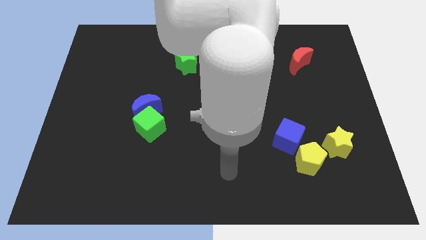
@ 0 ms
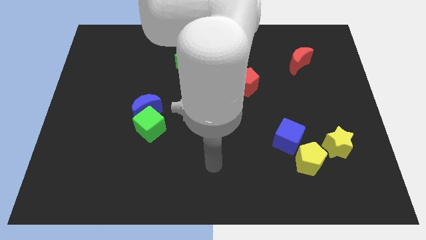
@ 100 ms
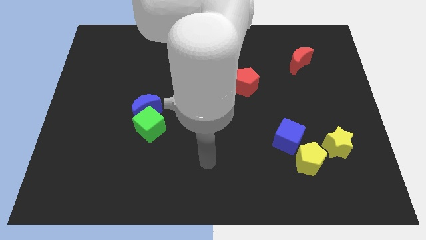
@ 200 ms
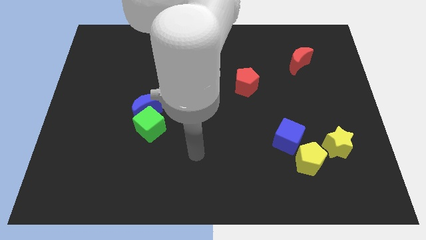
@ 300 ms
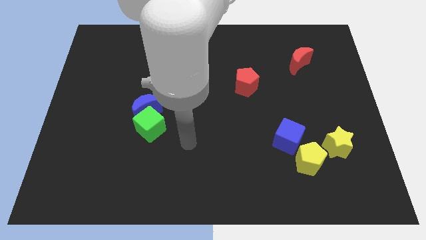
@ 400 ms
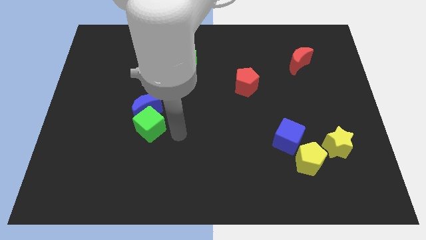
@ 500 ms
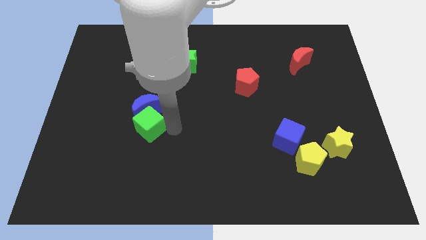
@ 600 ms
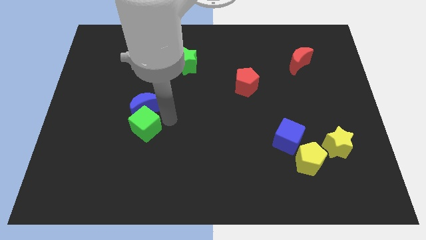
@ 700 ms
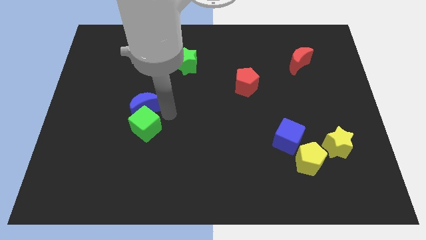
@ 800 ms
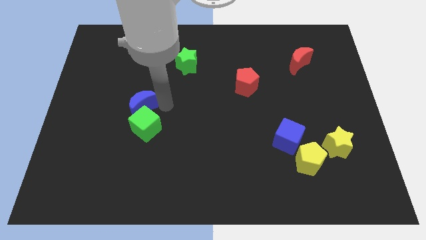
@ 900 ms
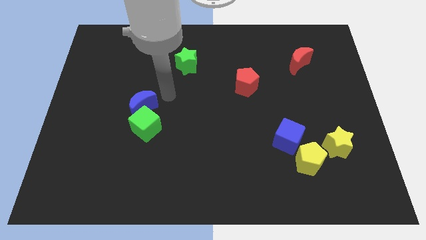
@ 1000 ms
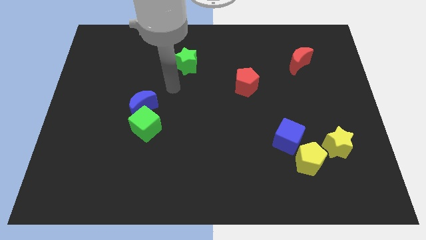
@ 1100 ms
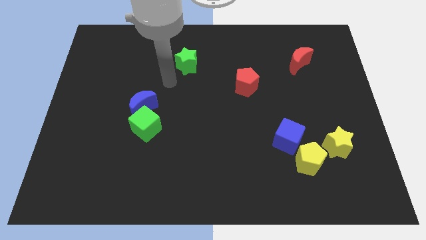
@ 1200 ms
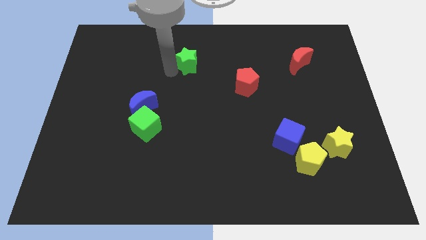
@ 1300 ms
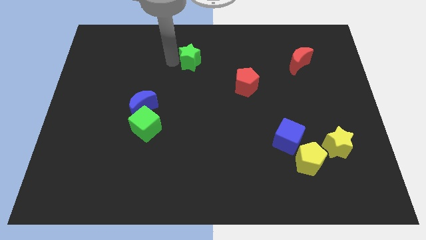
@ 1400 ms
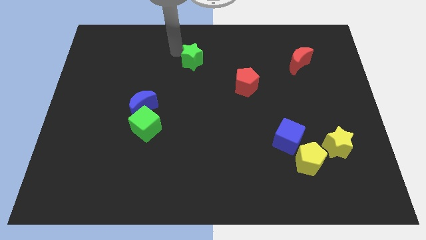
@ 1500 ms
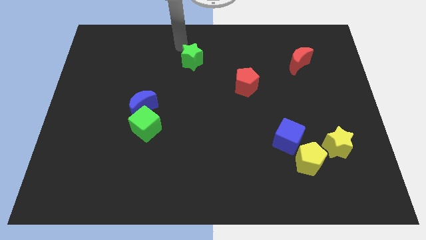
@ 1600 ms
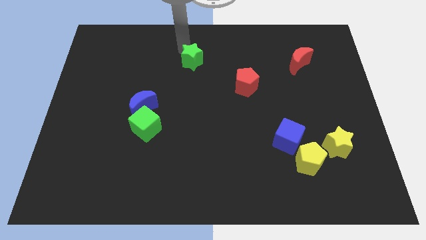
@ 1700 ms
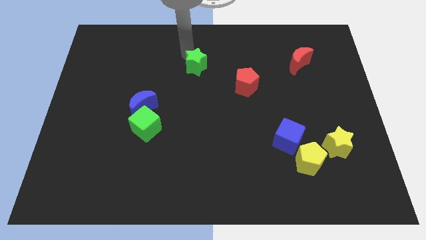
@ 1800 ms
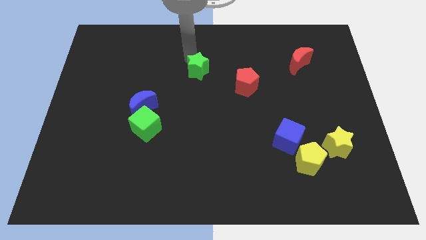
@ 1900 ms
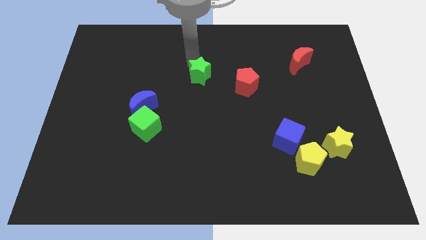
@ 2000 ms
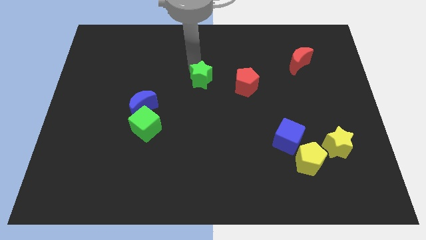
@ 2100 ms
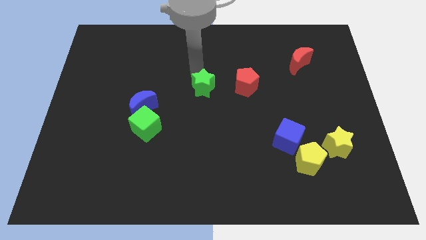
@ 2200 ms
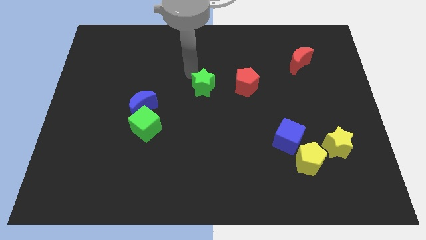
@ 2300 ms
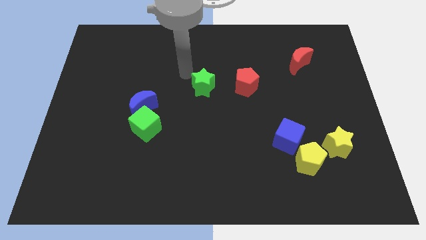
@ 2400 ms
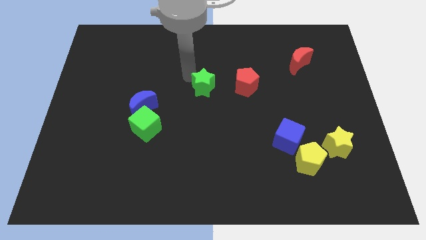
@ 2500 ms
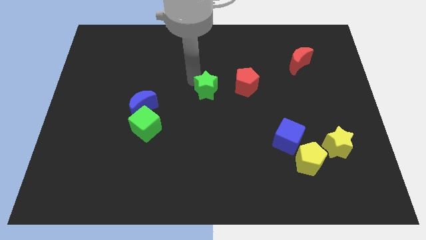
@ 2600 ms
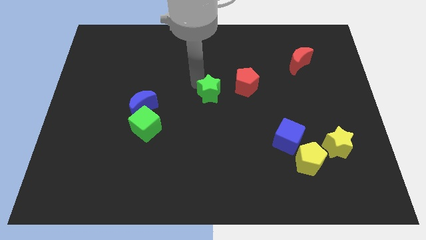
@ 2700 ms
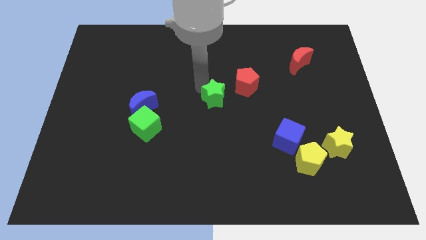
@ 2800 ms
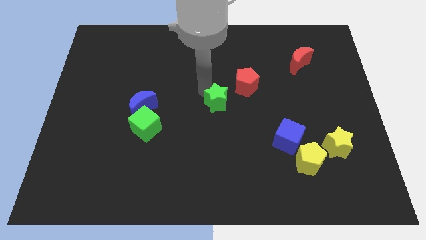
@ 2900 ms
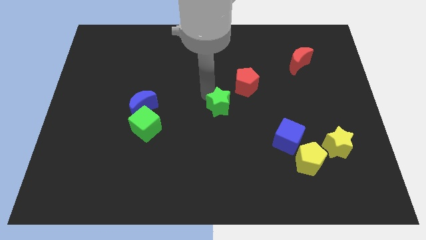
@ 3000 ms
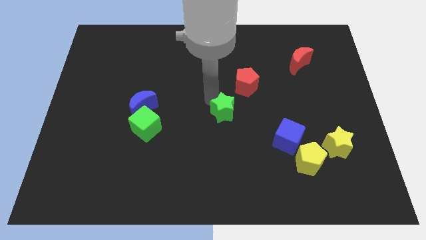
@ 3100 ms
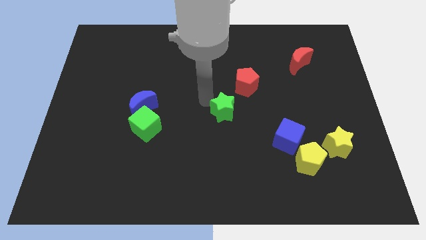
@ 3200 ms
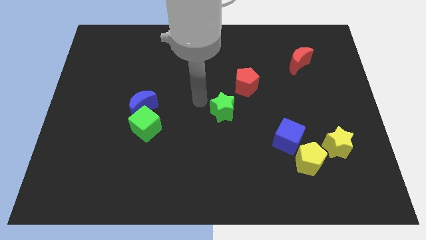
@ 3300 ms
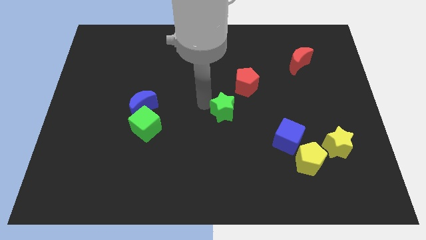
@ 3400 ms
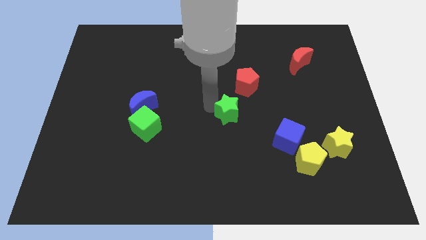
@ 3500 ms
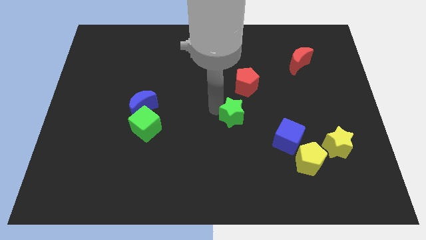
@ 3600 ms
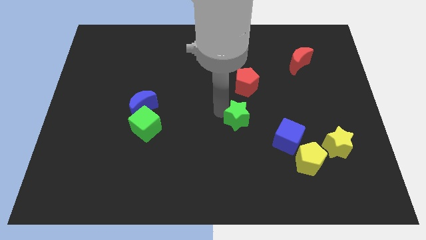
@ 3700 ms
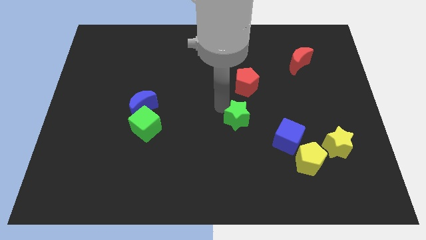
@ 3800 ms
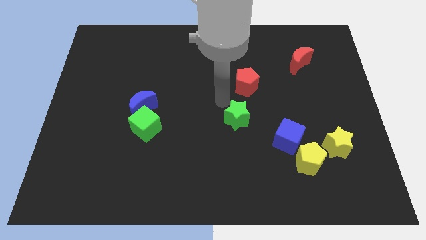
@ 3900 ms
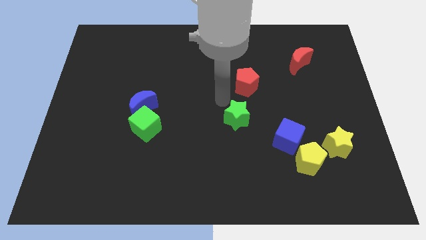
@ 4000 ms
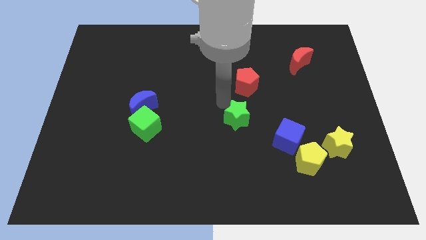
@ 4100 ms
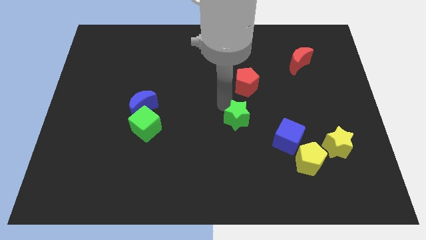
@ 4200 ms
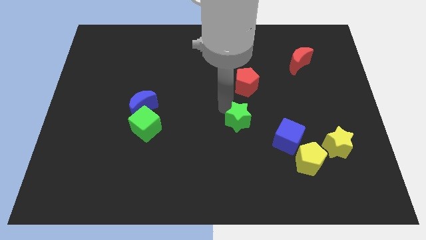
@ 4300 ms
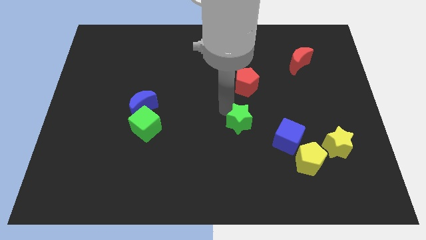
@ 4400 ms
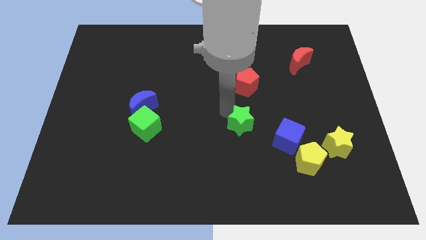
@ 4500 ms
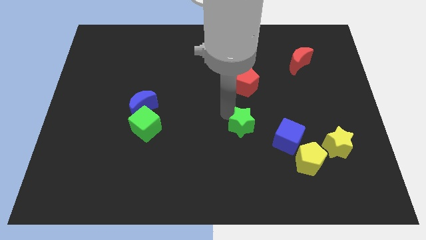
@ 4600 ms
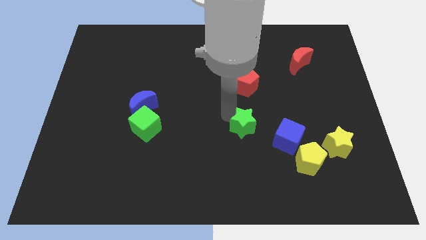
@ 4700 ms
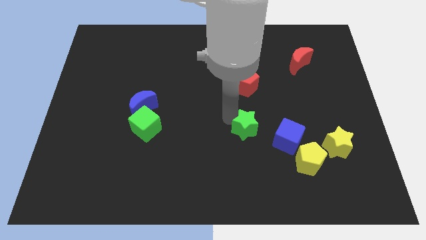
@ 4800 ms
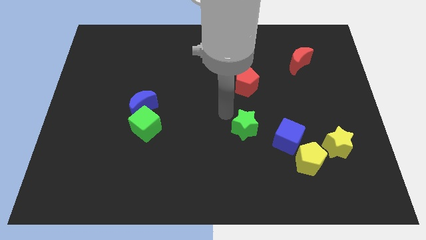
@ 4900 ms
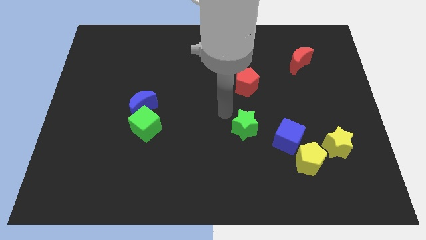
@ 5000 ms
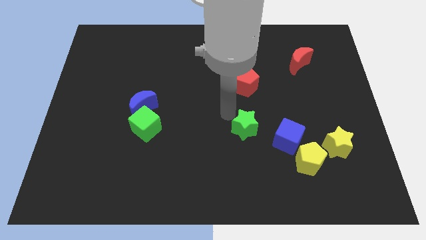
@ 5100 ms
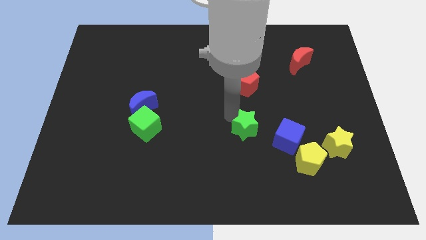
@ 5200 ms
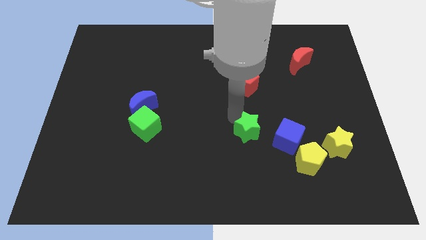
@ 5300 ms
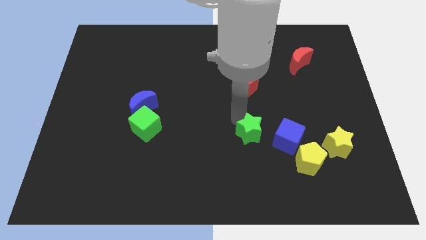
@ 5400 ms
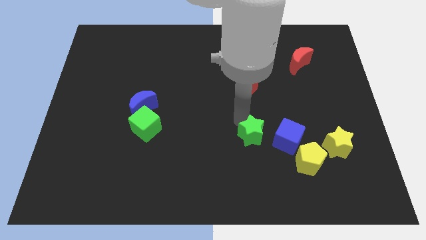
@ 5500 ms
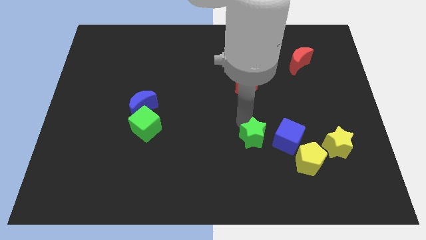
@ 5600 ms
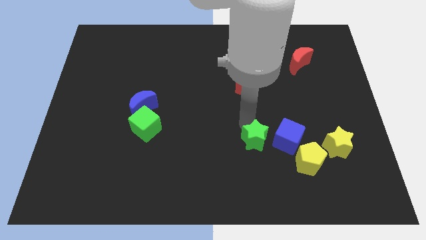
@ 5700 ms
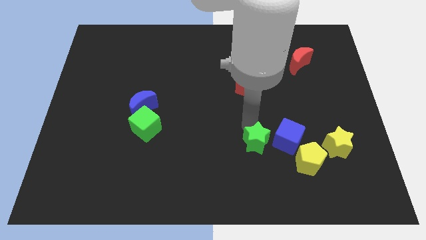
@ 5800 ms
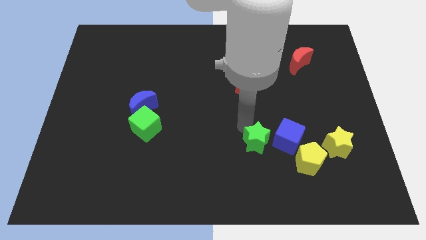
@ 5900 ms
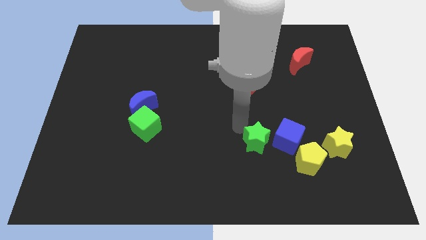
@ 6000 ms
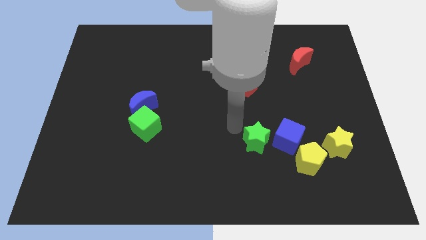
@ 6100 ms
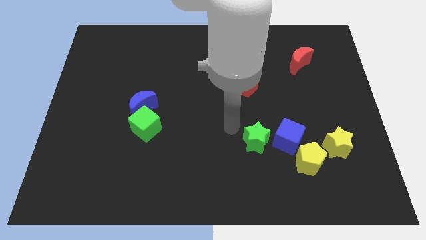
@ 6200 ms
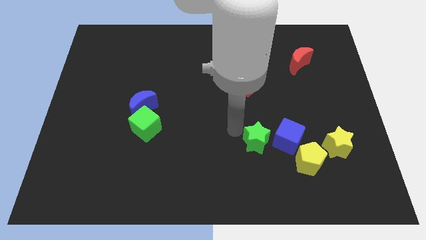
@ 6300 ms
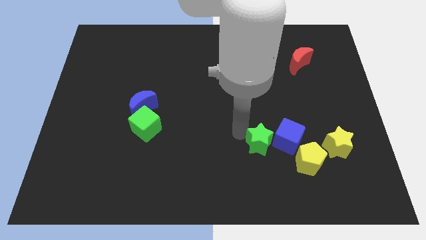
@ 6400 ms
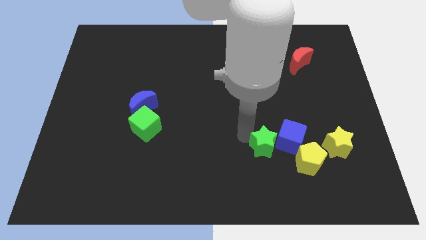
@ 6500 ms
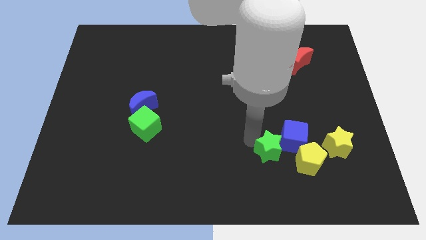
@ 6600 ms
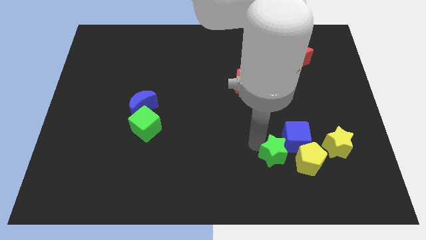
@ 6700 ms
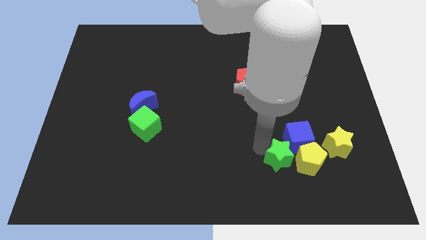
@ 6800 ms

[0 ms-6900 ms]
put the green star to the yellow pentagon
